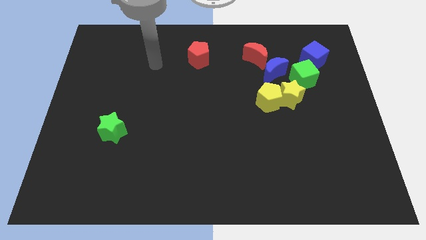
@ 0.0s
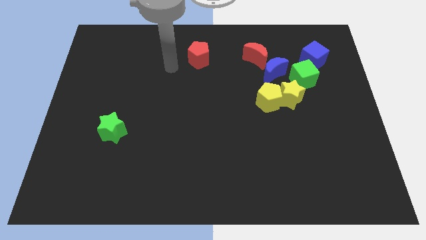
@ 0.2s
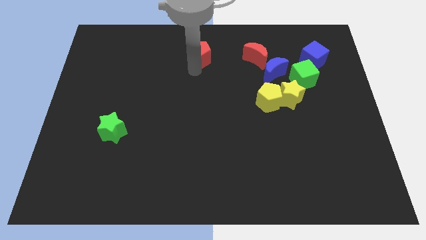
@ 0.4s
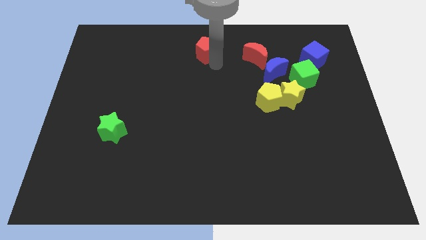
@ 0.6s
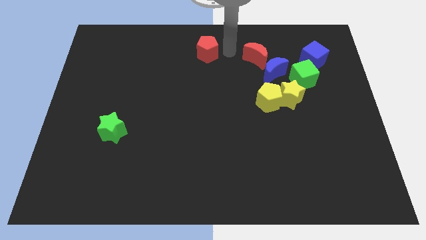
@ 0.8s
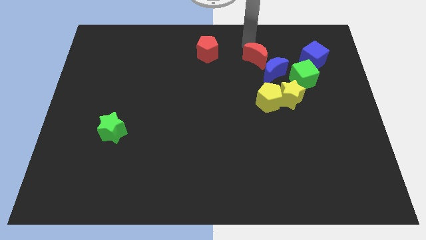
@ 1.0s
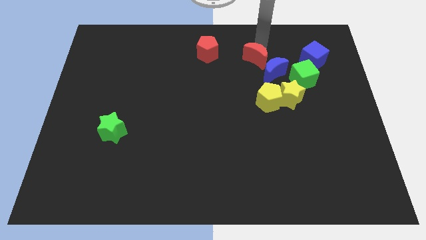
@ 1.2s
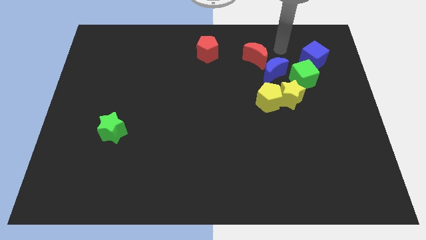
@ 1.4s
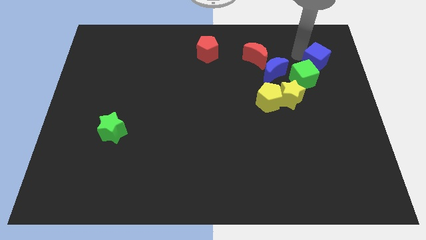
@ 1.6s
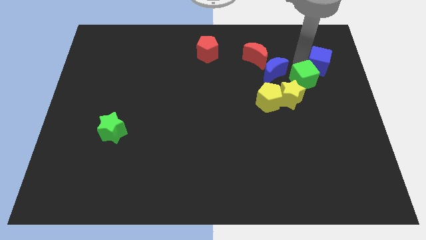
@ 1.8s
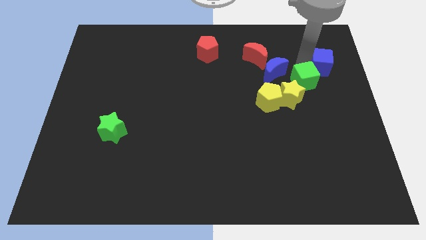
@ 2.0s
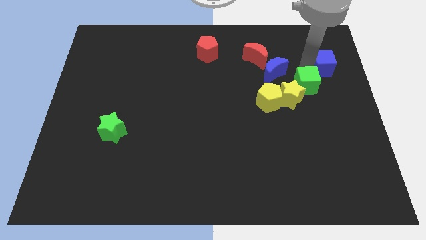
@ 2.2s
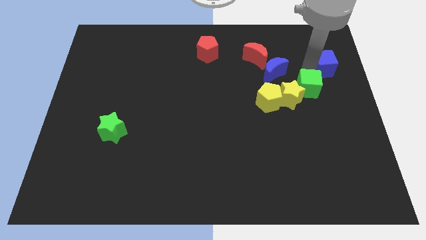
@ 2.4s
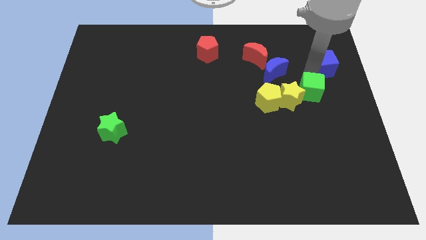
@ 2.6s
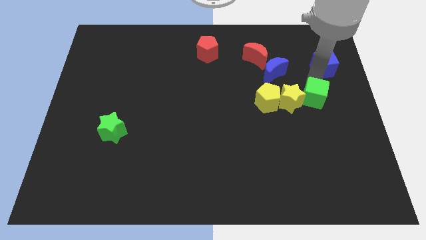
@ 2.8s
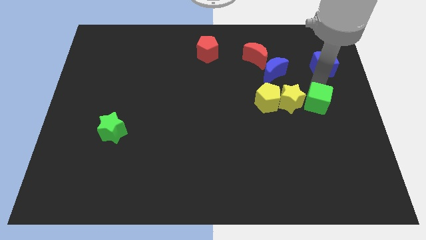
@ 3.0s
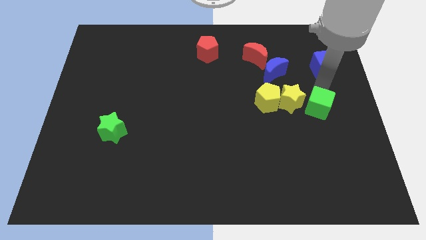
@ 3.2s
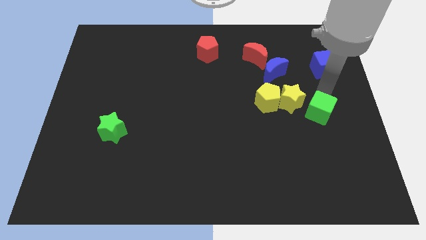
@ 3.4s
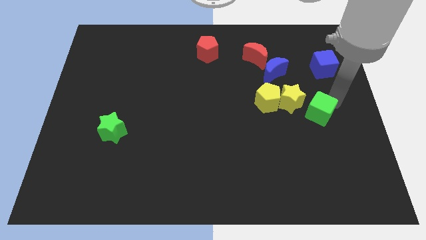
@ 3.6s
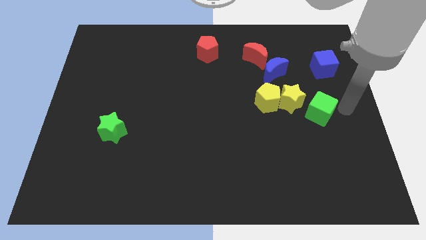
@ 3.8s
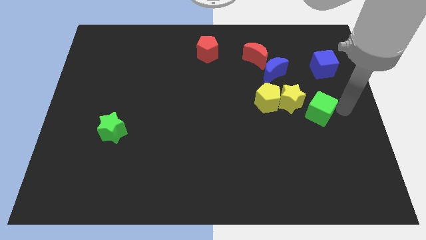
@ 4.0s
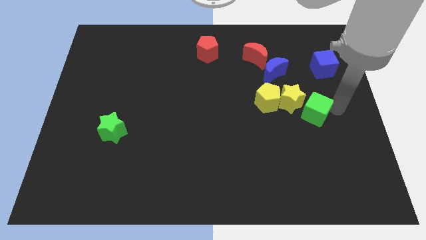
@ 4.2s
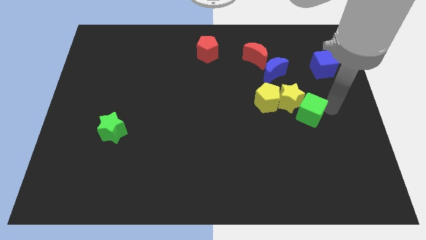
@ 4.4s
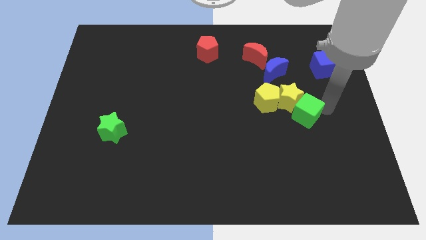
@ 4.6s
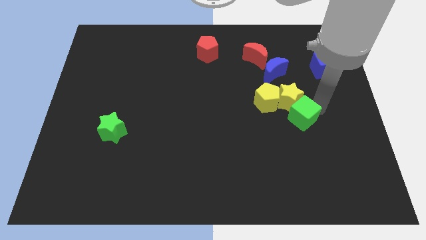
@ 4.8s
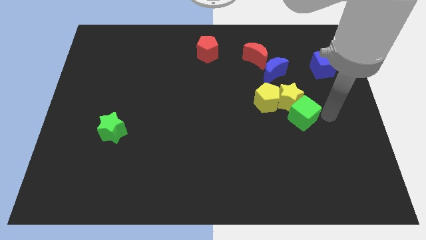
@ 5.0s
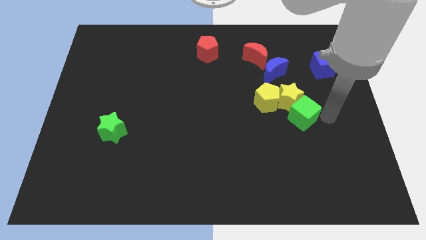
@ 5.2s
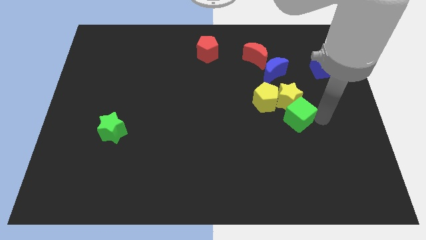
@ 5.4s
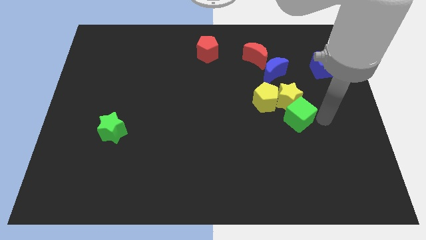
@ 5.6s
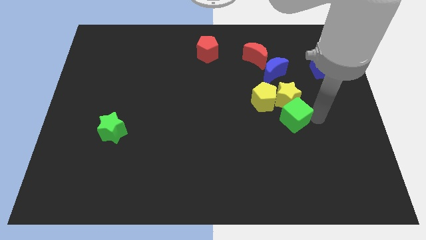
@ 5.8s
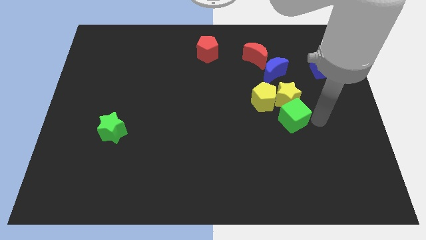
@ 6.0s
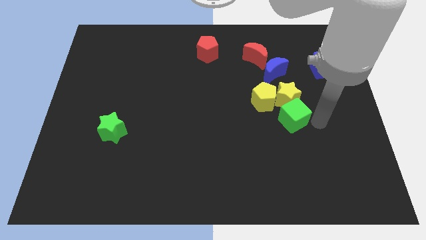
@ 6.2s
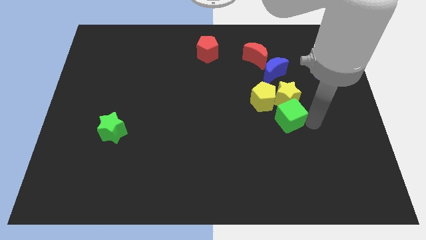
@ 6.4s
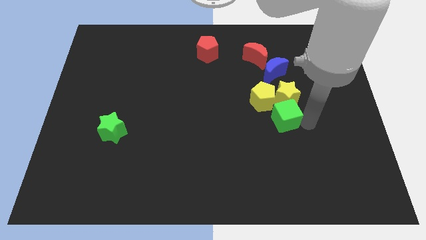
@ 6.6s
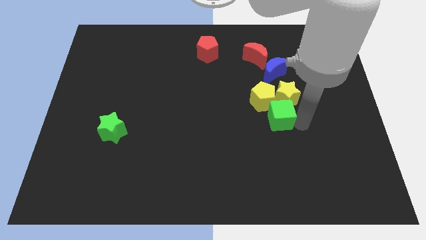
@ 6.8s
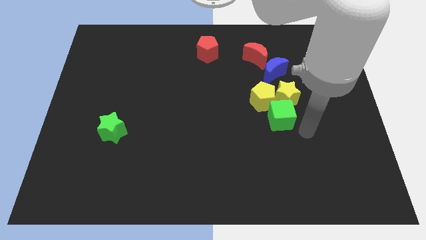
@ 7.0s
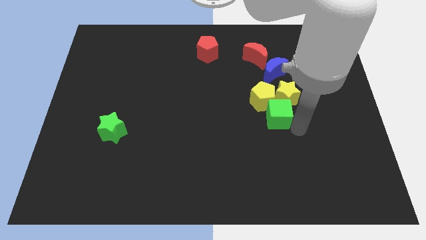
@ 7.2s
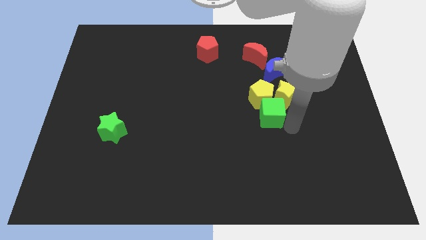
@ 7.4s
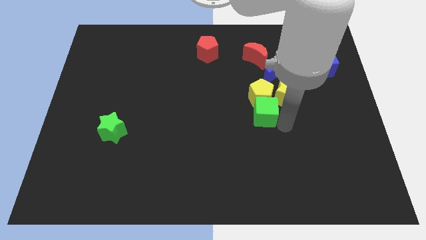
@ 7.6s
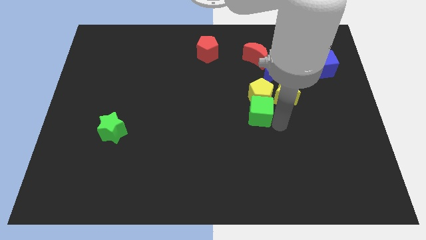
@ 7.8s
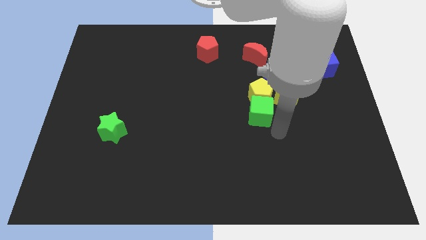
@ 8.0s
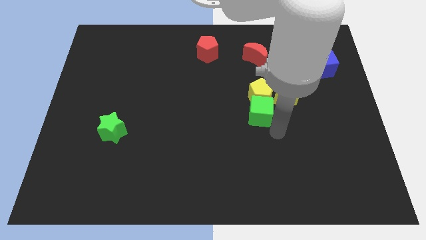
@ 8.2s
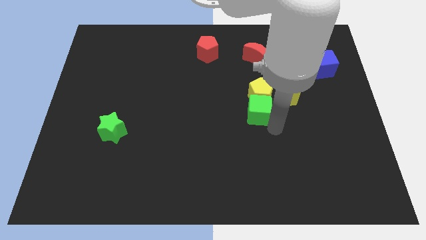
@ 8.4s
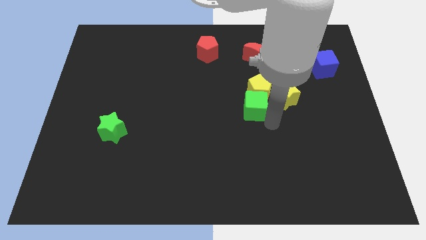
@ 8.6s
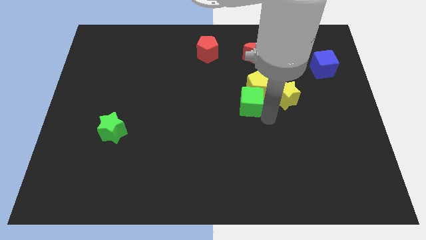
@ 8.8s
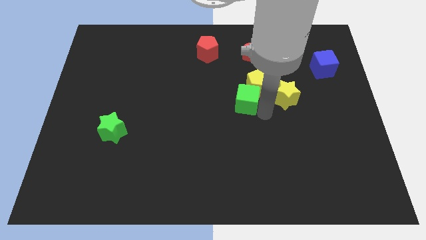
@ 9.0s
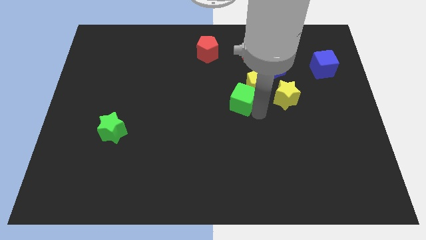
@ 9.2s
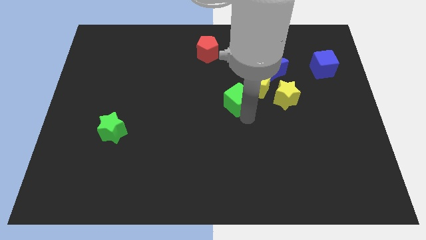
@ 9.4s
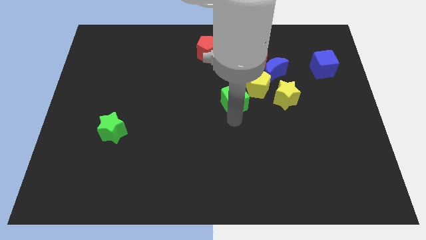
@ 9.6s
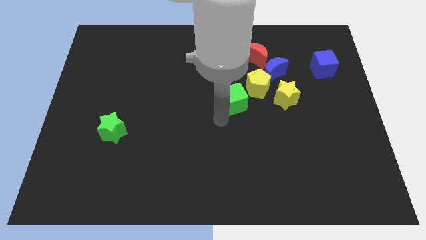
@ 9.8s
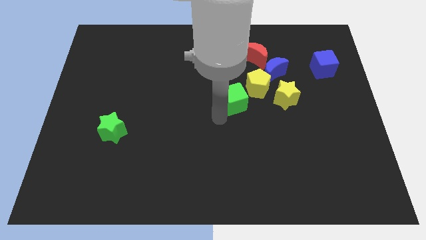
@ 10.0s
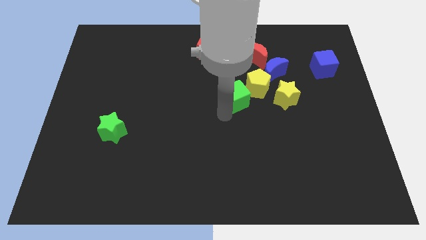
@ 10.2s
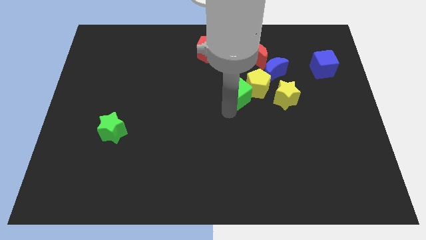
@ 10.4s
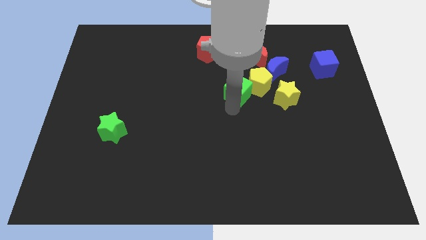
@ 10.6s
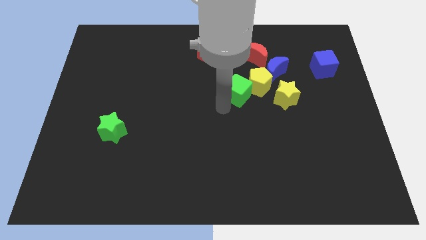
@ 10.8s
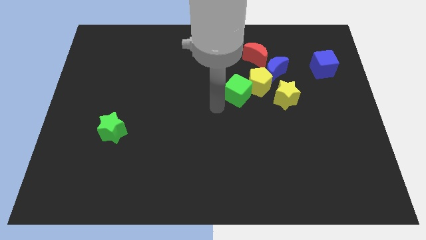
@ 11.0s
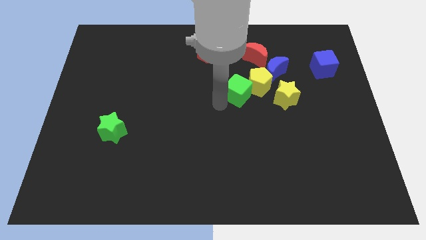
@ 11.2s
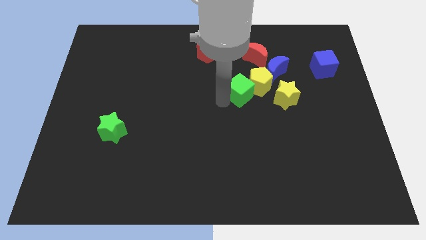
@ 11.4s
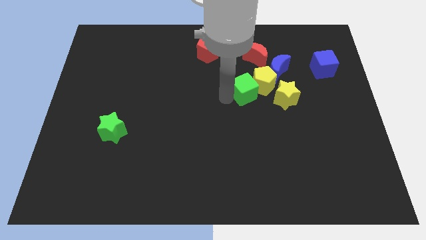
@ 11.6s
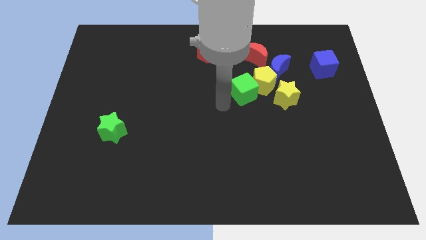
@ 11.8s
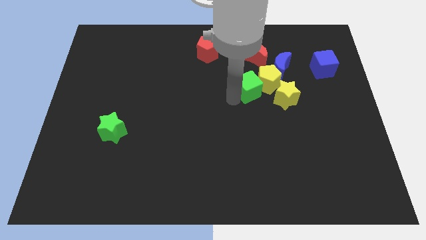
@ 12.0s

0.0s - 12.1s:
put the green cube to the top left side of the yellow star

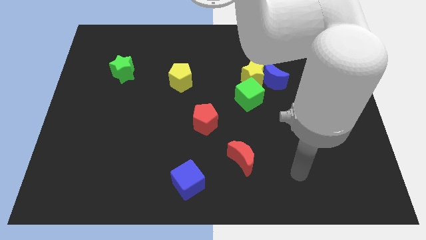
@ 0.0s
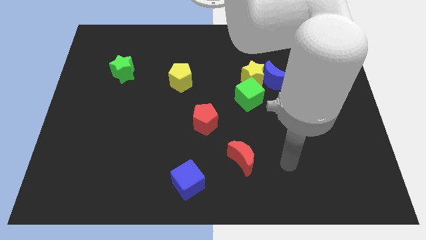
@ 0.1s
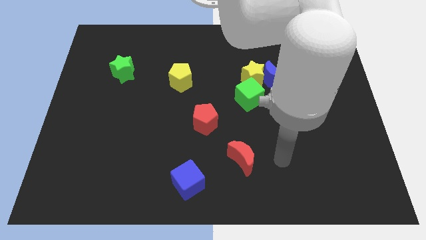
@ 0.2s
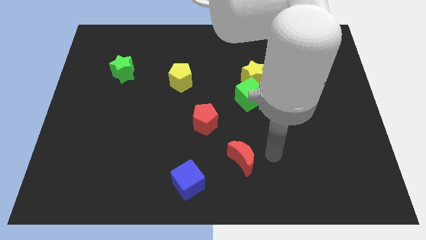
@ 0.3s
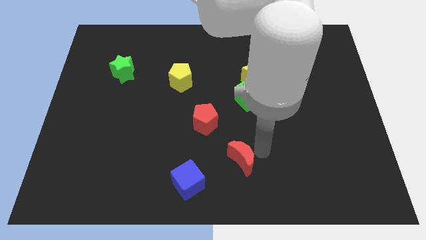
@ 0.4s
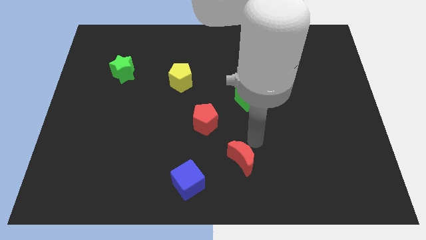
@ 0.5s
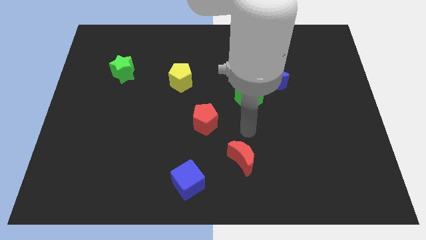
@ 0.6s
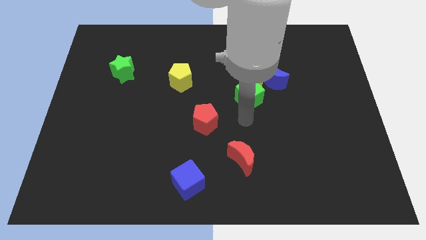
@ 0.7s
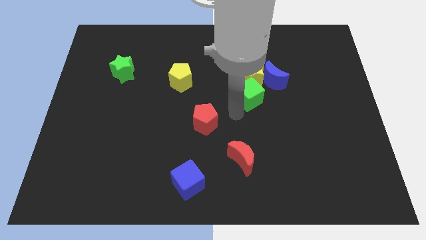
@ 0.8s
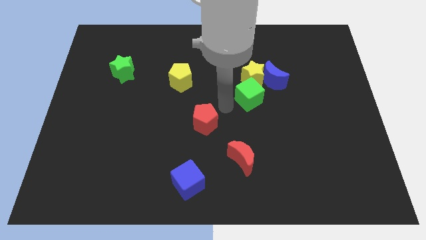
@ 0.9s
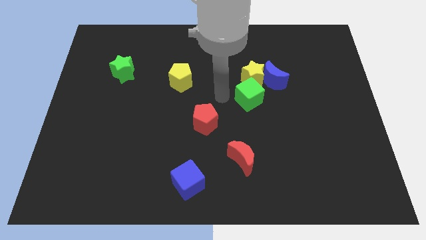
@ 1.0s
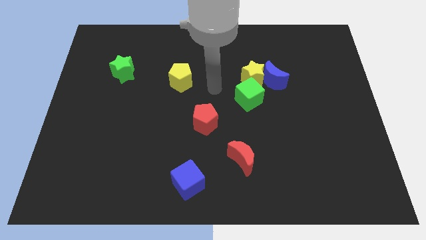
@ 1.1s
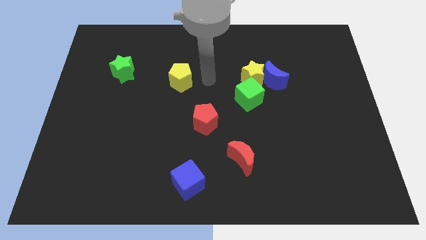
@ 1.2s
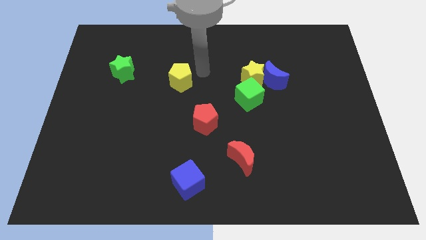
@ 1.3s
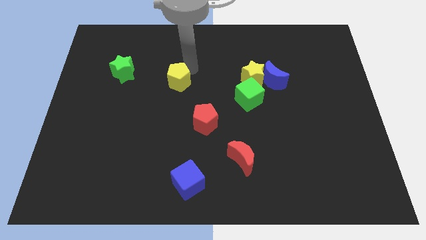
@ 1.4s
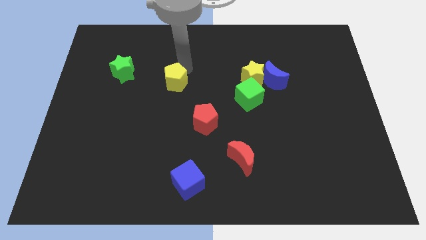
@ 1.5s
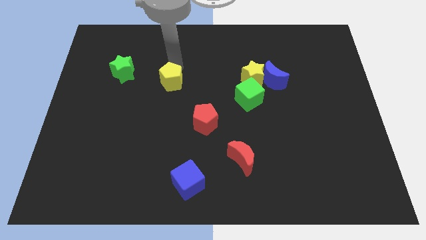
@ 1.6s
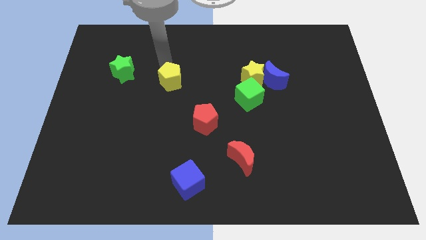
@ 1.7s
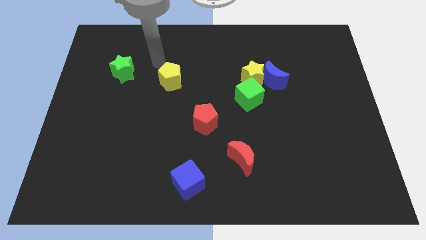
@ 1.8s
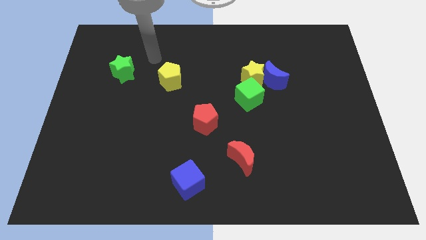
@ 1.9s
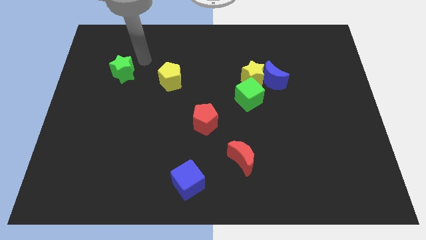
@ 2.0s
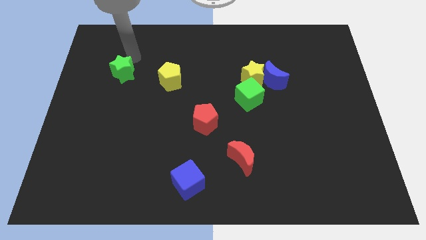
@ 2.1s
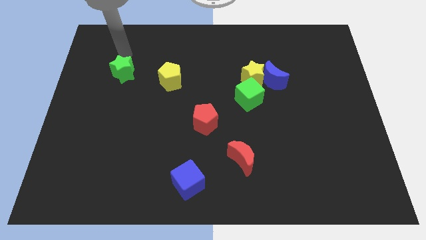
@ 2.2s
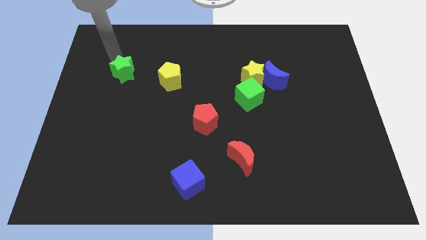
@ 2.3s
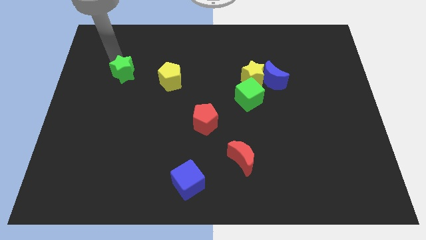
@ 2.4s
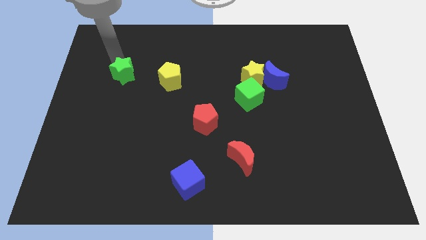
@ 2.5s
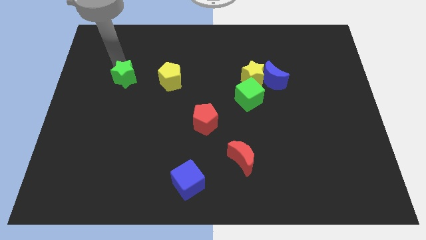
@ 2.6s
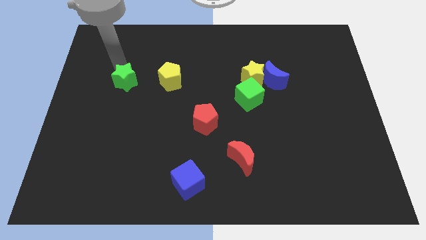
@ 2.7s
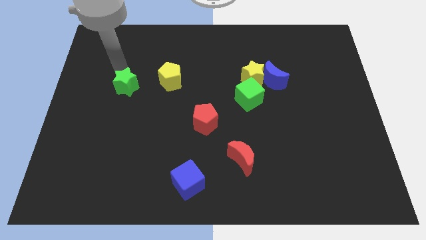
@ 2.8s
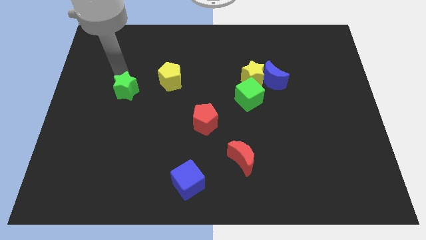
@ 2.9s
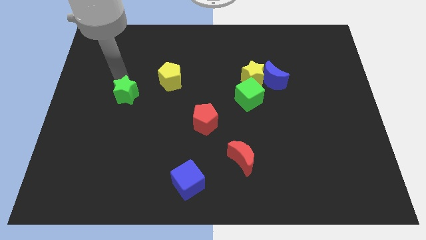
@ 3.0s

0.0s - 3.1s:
push the green star to the bottom left of the yellow pentagon
